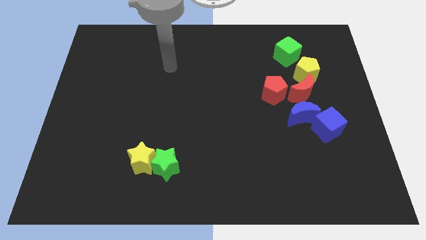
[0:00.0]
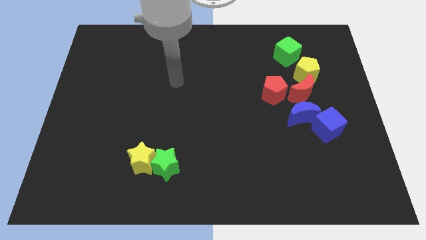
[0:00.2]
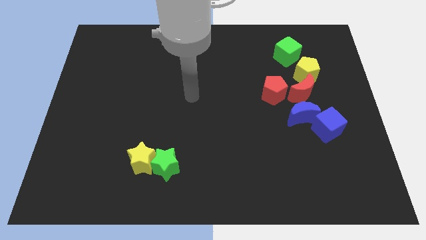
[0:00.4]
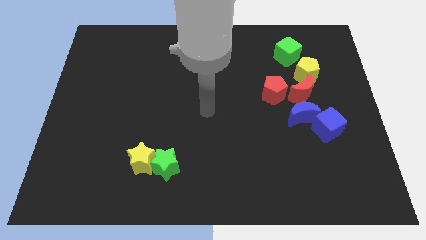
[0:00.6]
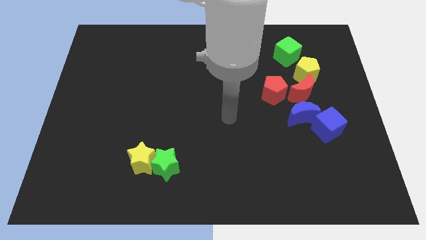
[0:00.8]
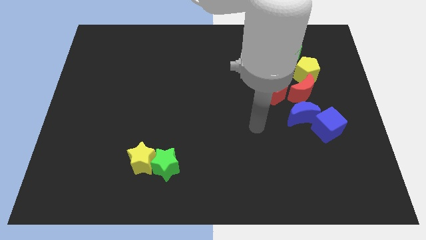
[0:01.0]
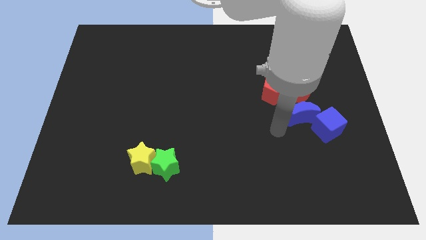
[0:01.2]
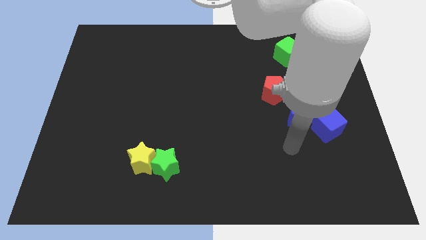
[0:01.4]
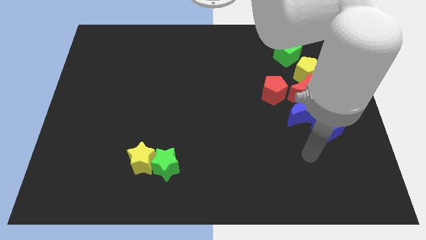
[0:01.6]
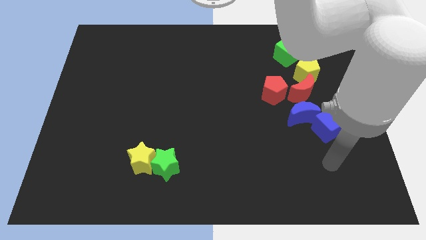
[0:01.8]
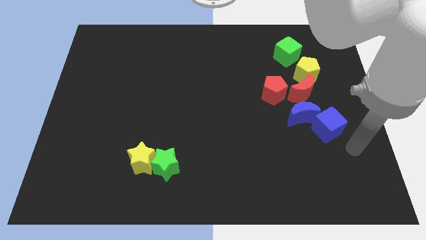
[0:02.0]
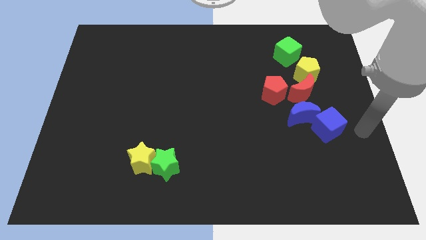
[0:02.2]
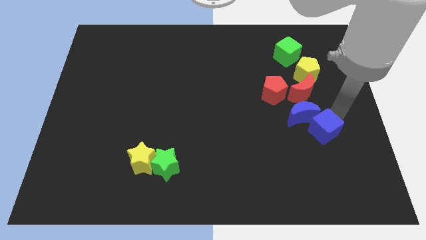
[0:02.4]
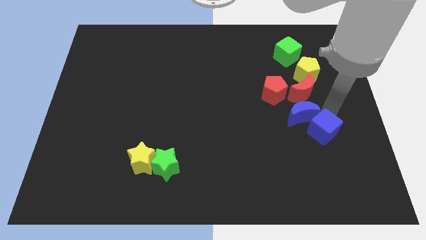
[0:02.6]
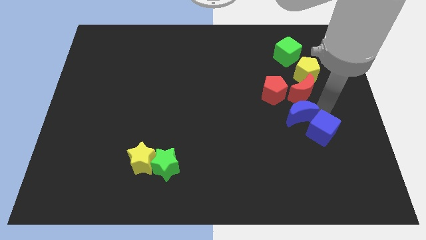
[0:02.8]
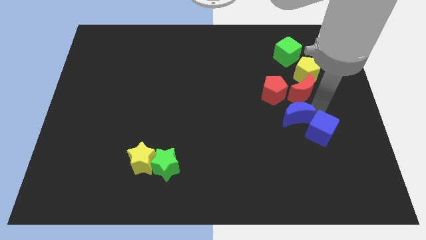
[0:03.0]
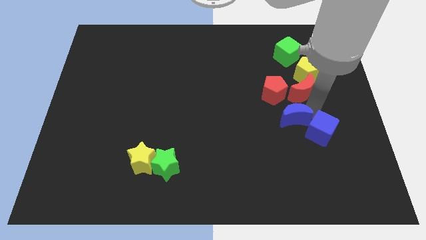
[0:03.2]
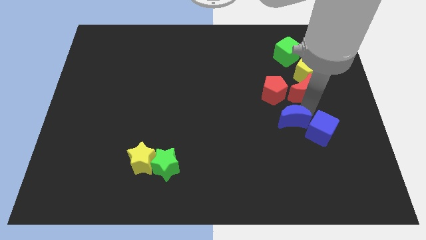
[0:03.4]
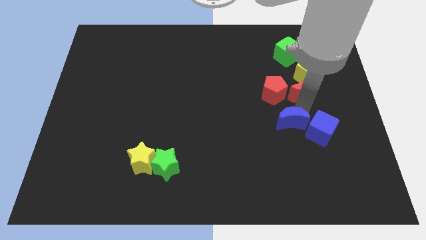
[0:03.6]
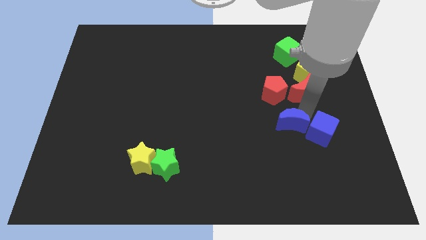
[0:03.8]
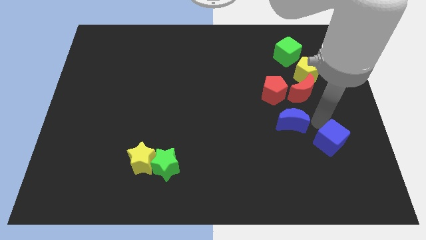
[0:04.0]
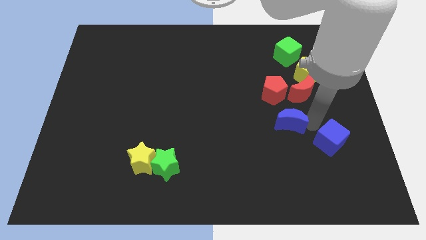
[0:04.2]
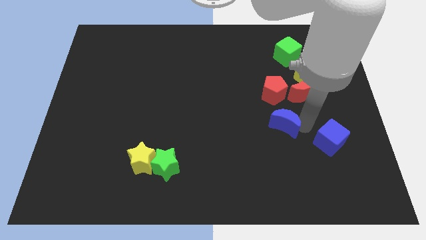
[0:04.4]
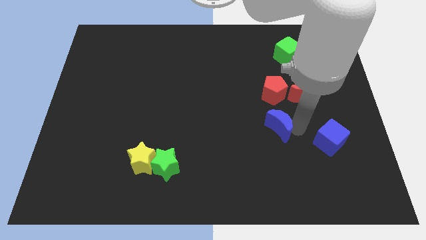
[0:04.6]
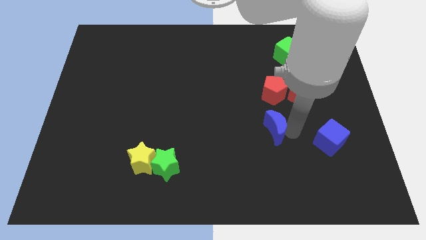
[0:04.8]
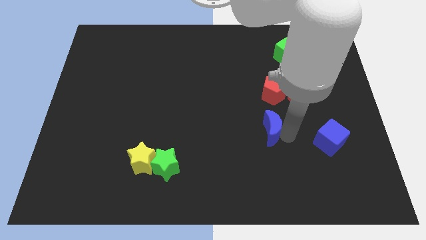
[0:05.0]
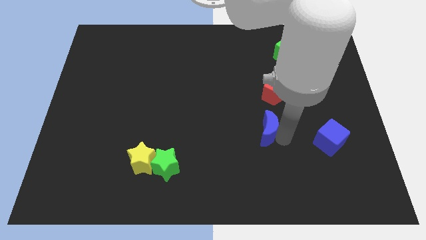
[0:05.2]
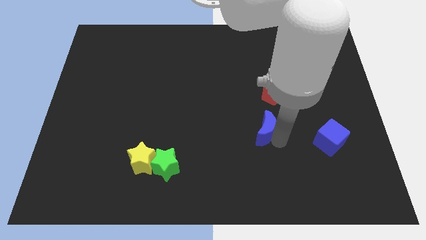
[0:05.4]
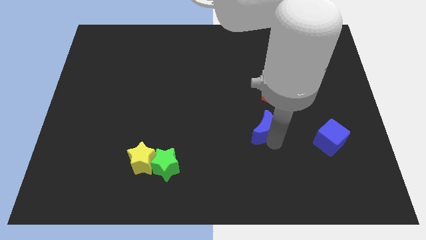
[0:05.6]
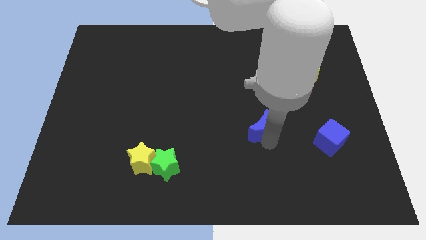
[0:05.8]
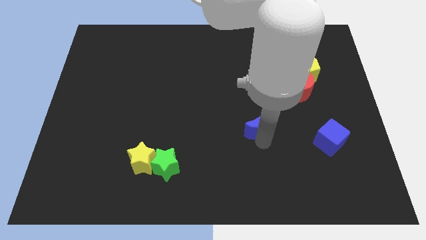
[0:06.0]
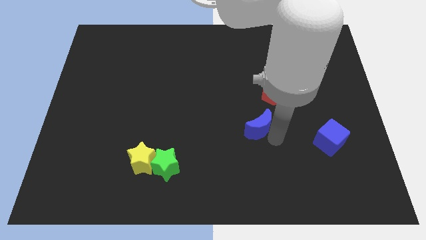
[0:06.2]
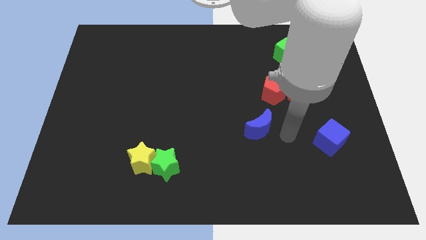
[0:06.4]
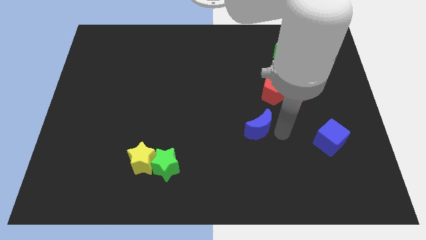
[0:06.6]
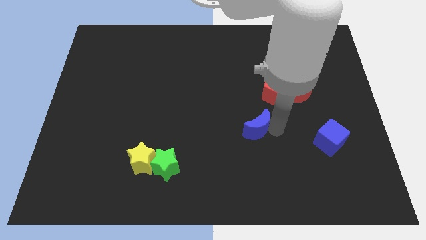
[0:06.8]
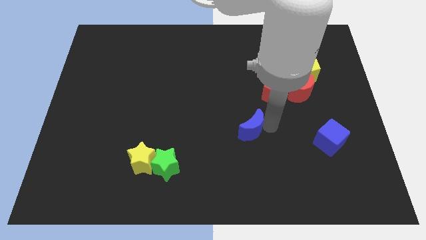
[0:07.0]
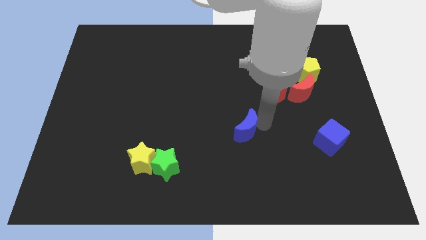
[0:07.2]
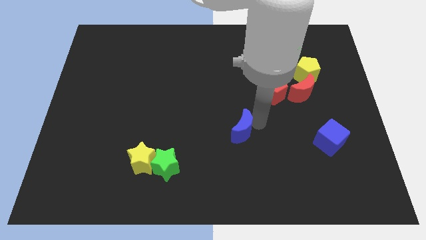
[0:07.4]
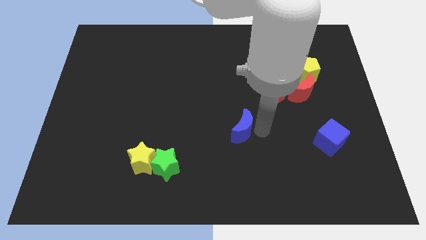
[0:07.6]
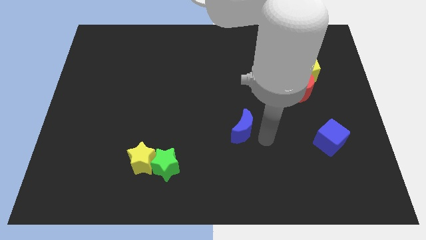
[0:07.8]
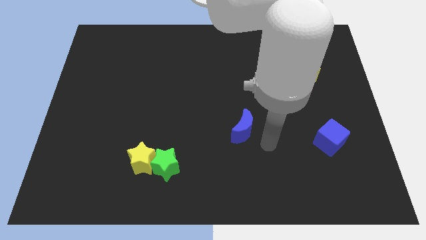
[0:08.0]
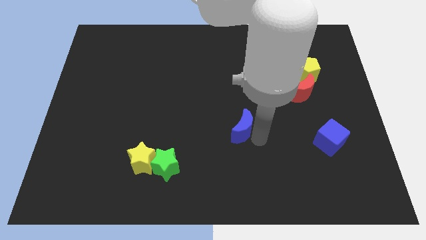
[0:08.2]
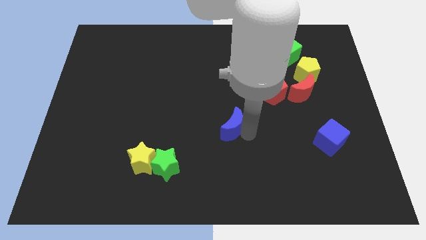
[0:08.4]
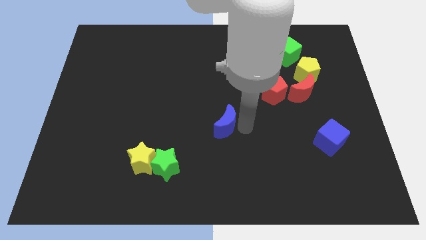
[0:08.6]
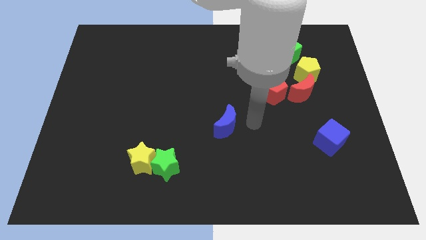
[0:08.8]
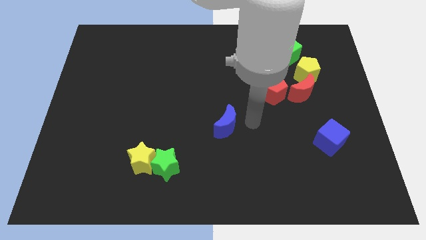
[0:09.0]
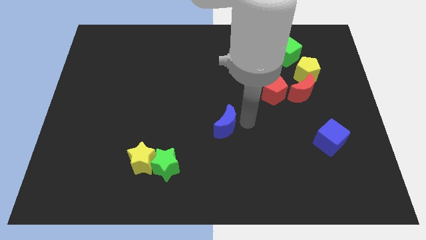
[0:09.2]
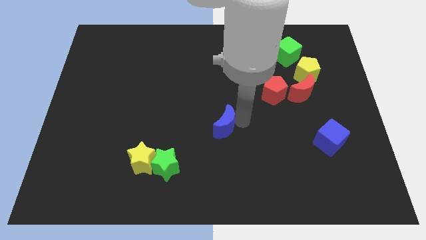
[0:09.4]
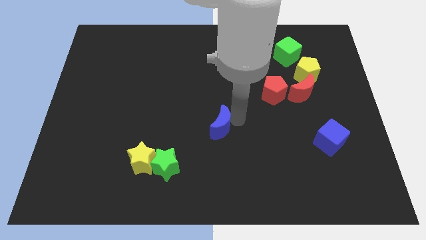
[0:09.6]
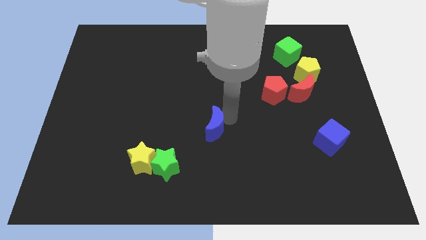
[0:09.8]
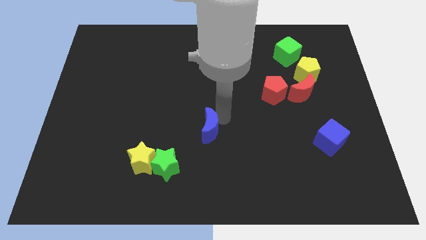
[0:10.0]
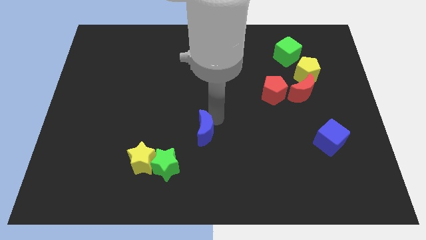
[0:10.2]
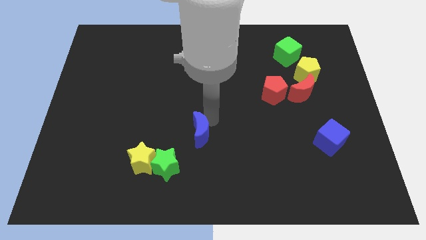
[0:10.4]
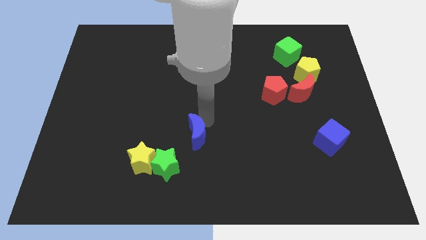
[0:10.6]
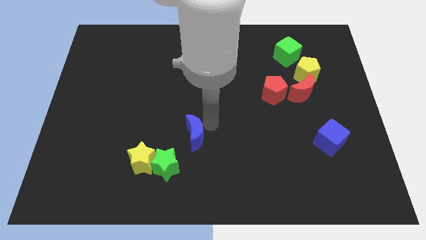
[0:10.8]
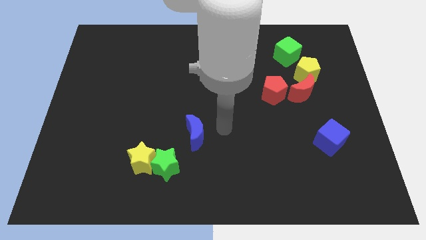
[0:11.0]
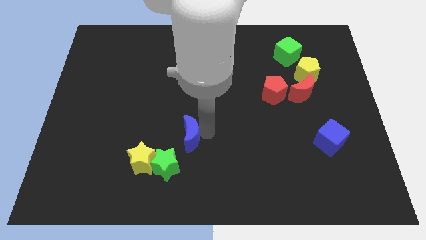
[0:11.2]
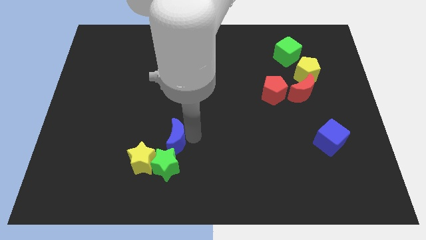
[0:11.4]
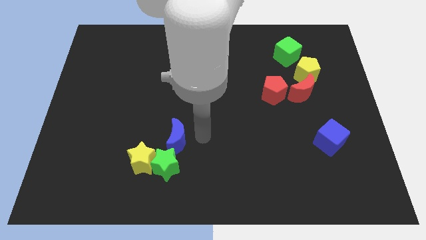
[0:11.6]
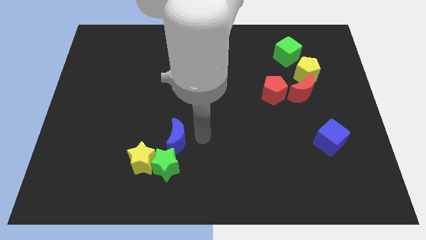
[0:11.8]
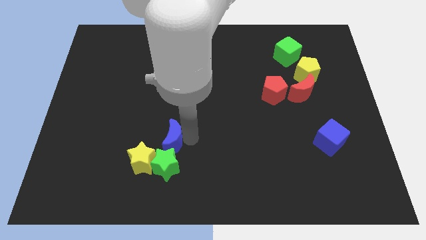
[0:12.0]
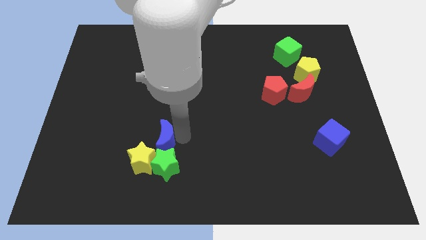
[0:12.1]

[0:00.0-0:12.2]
move the blue moon close to the green star

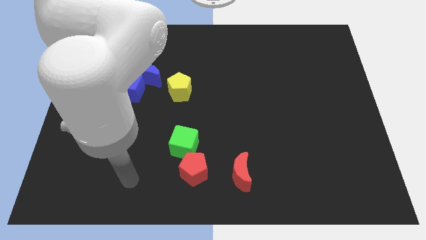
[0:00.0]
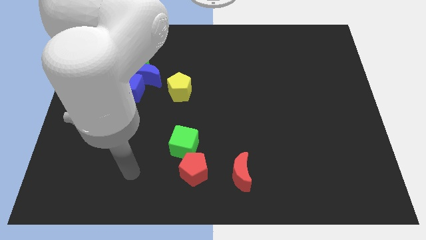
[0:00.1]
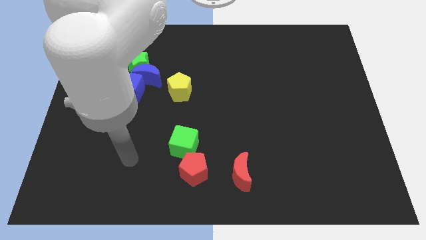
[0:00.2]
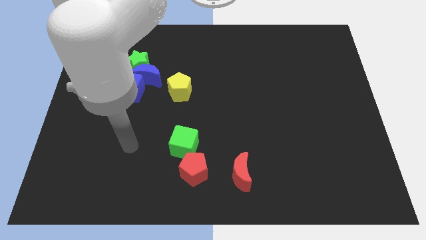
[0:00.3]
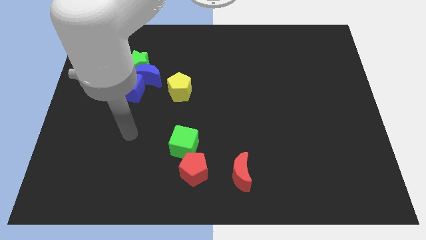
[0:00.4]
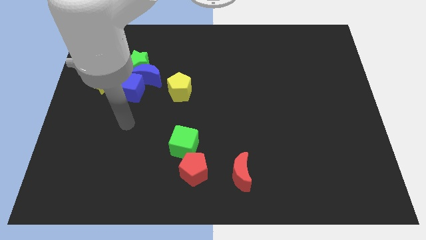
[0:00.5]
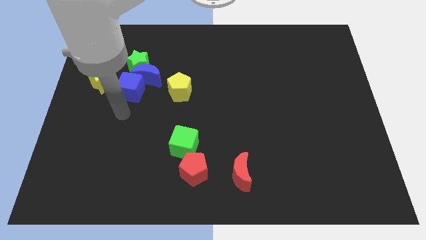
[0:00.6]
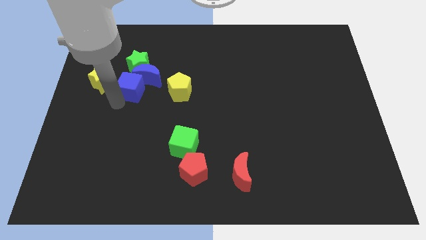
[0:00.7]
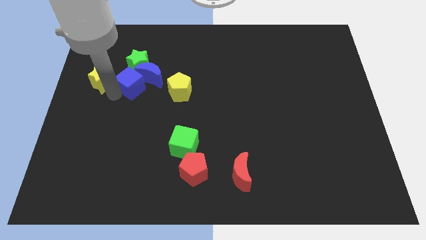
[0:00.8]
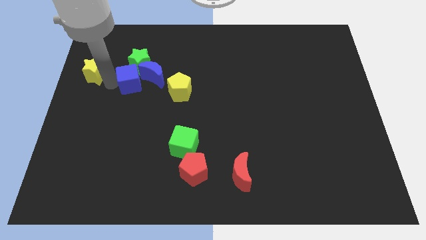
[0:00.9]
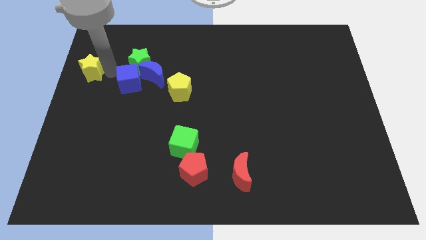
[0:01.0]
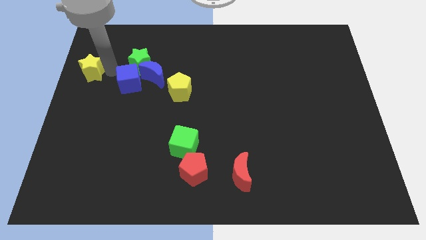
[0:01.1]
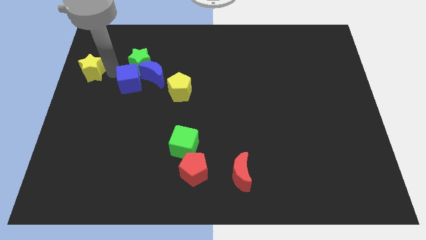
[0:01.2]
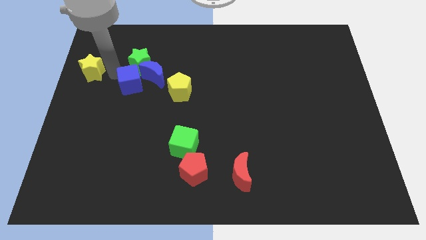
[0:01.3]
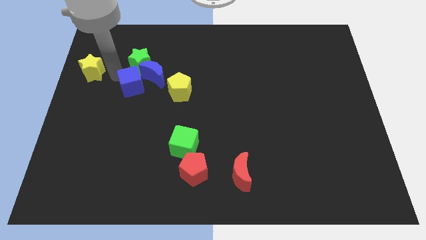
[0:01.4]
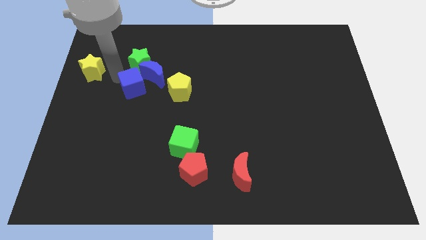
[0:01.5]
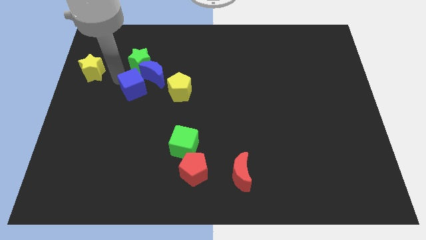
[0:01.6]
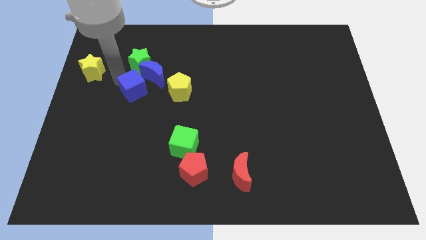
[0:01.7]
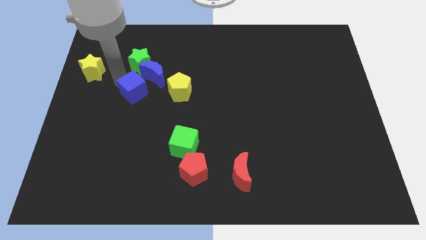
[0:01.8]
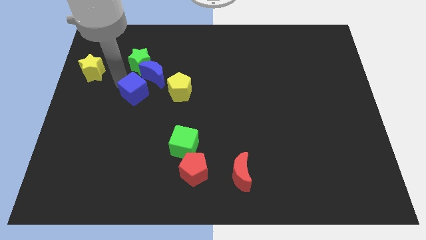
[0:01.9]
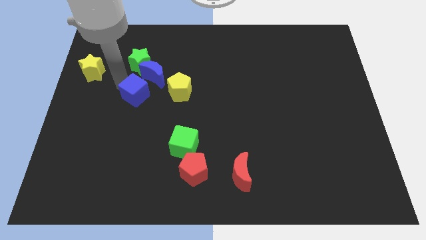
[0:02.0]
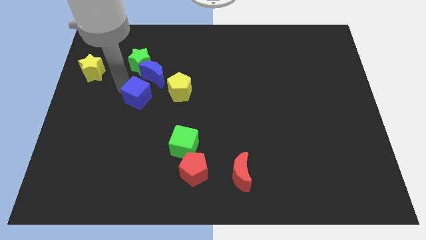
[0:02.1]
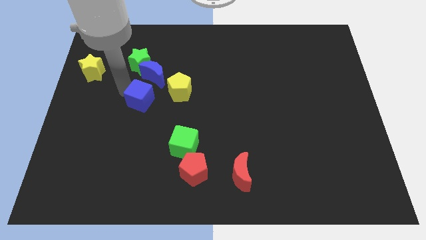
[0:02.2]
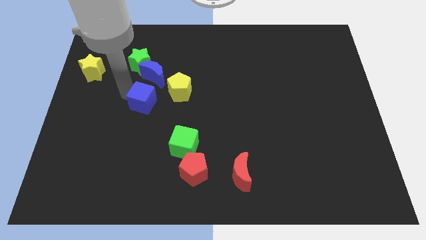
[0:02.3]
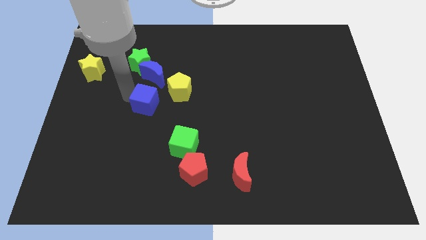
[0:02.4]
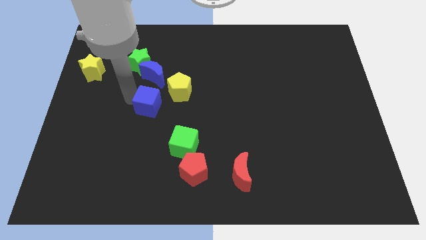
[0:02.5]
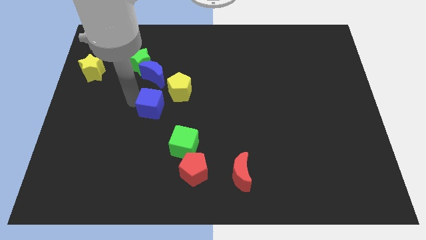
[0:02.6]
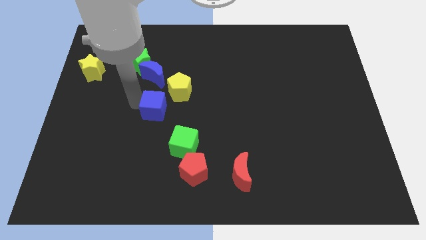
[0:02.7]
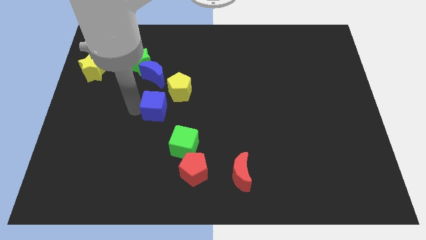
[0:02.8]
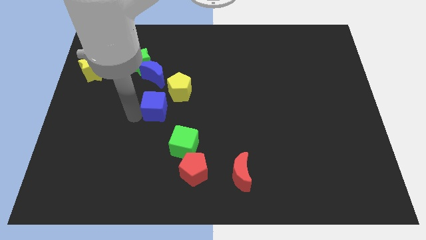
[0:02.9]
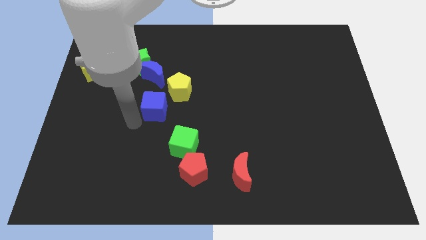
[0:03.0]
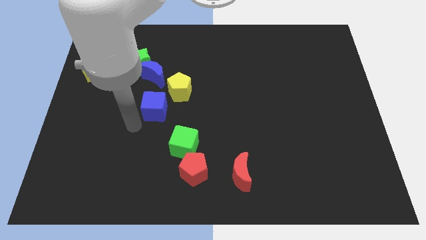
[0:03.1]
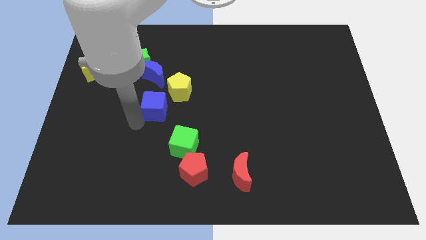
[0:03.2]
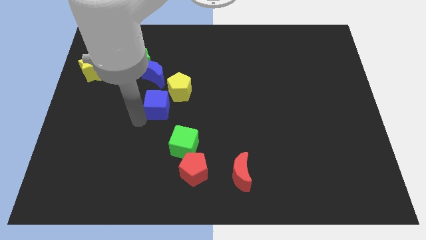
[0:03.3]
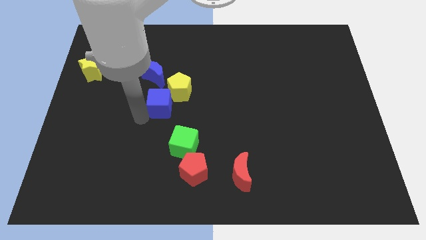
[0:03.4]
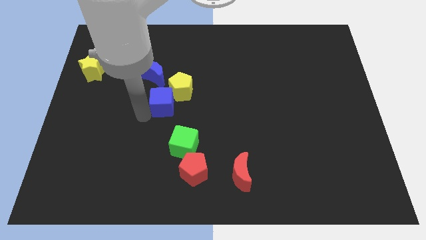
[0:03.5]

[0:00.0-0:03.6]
put the blue cube close to the yellow pentagon
